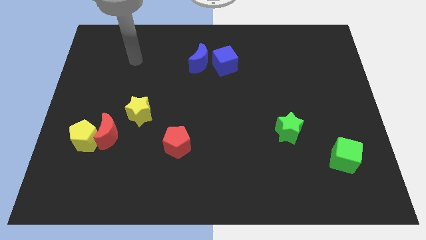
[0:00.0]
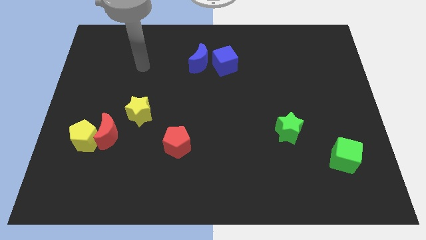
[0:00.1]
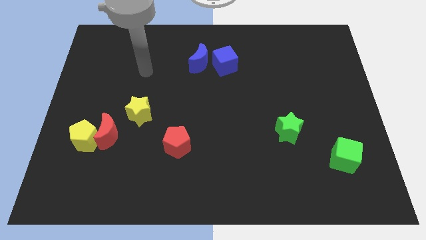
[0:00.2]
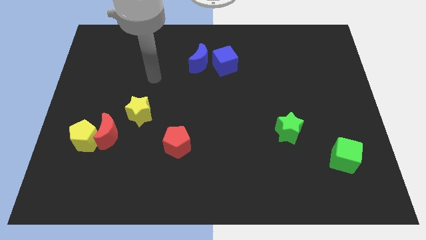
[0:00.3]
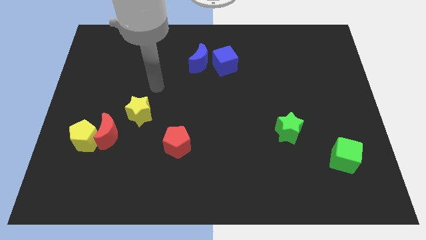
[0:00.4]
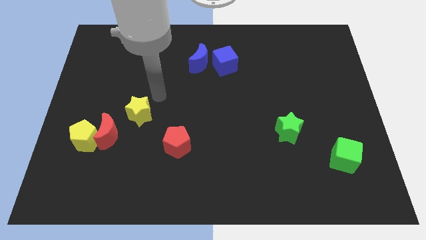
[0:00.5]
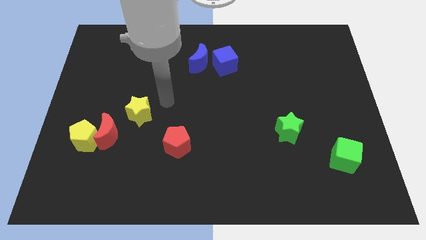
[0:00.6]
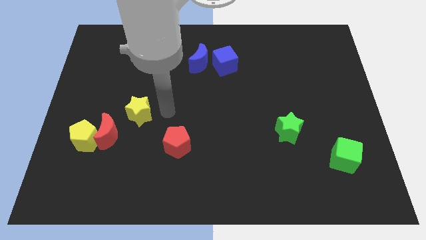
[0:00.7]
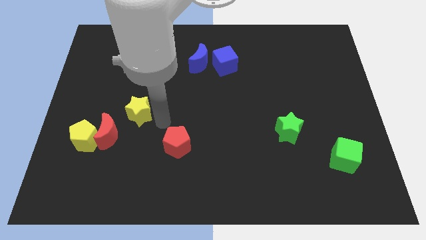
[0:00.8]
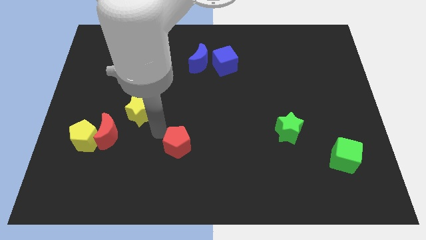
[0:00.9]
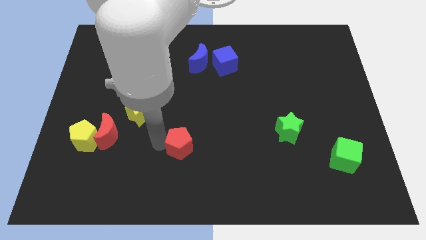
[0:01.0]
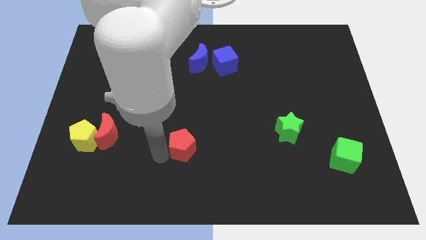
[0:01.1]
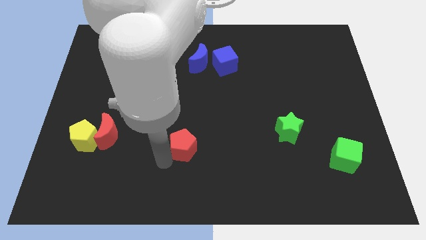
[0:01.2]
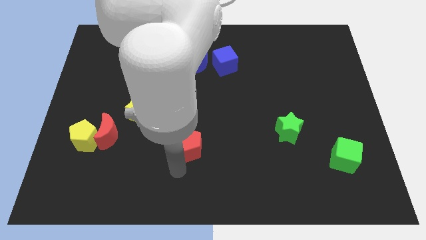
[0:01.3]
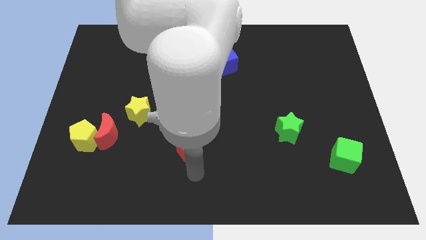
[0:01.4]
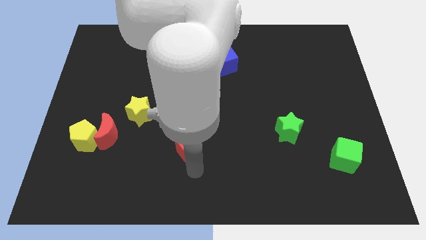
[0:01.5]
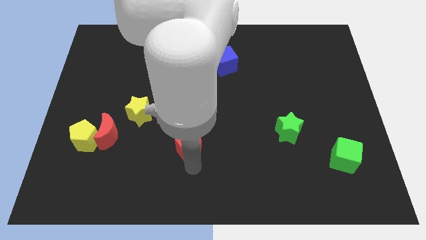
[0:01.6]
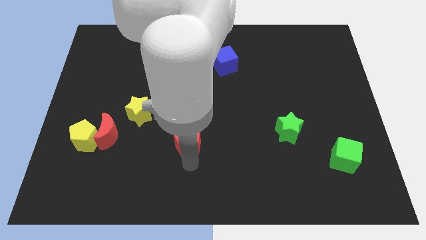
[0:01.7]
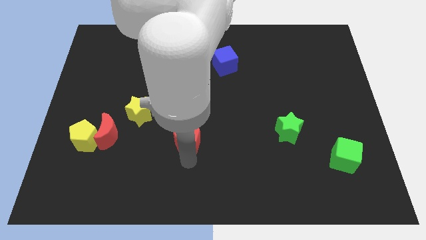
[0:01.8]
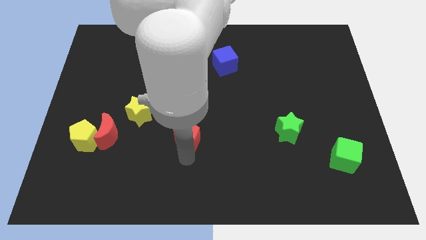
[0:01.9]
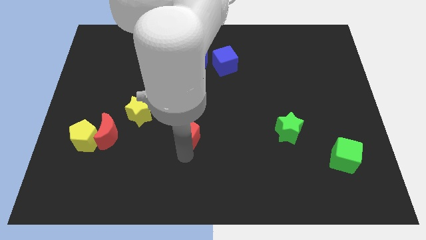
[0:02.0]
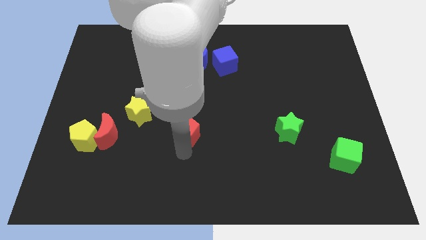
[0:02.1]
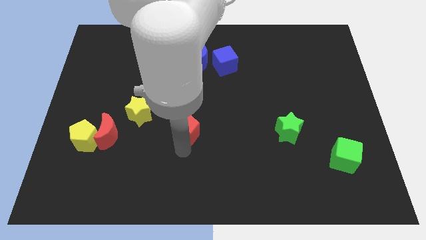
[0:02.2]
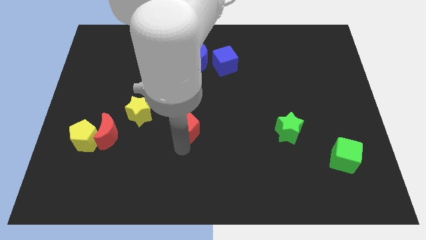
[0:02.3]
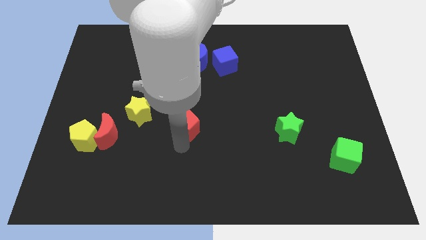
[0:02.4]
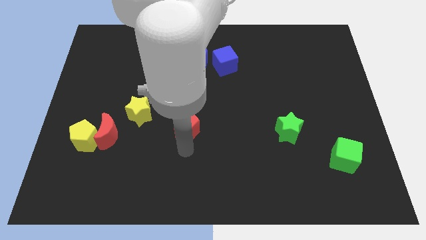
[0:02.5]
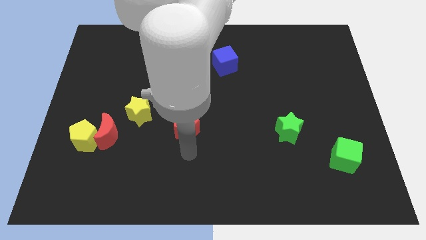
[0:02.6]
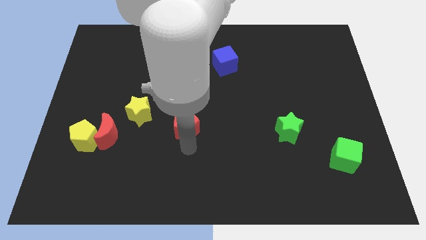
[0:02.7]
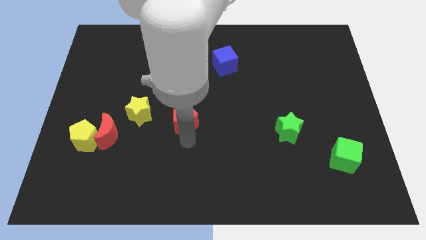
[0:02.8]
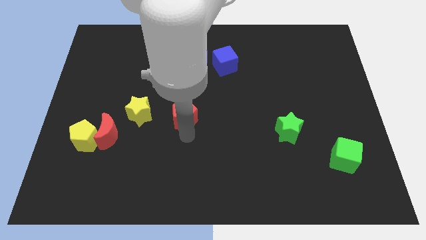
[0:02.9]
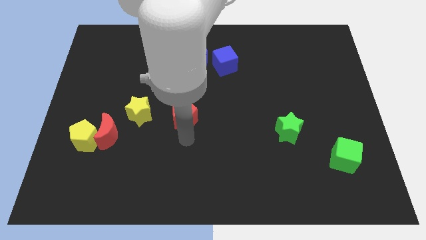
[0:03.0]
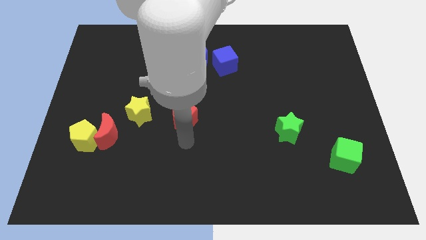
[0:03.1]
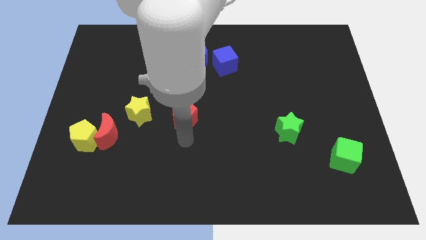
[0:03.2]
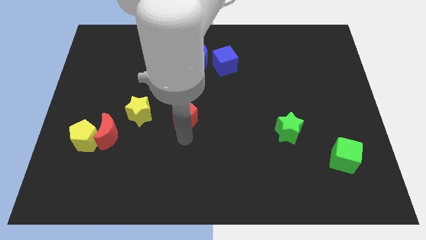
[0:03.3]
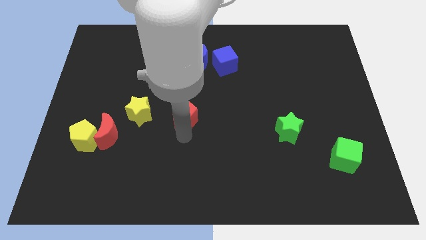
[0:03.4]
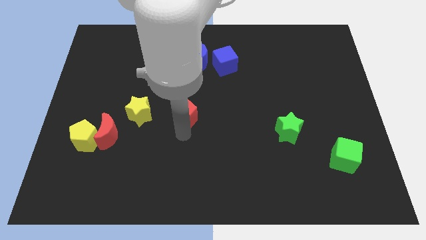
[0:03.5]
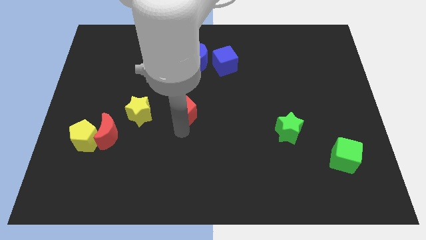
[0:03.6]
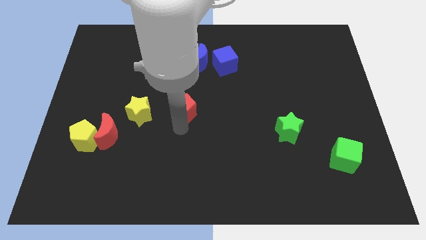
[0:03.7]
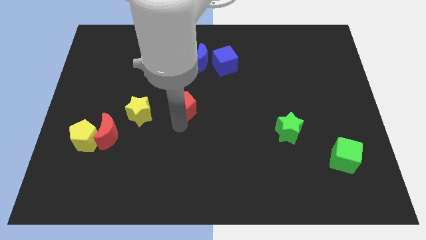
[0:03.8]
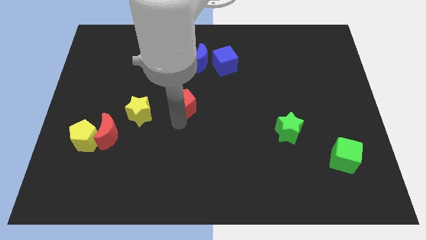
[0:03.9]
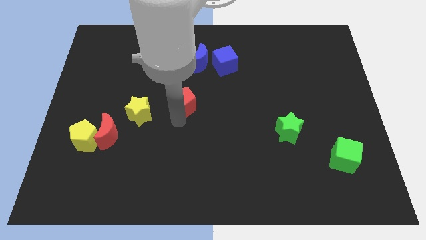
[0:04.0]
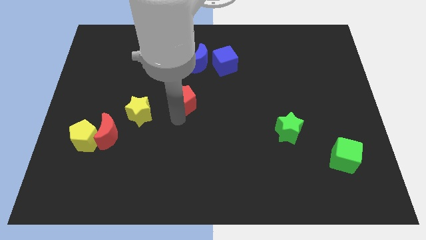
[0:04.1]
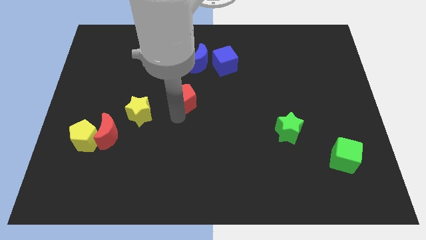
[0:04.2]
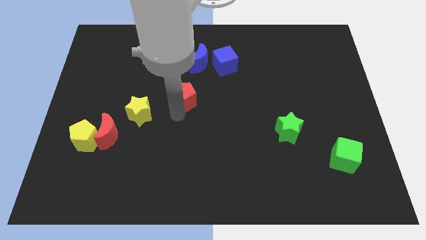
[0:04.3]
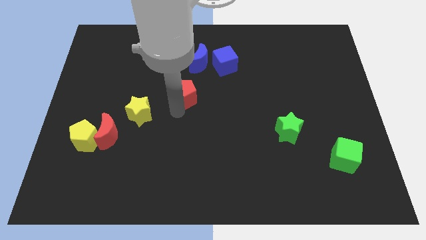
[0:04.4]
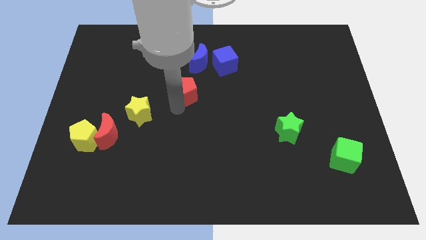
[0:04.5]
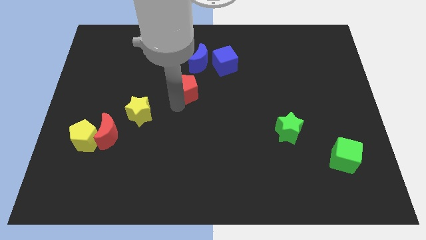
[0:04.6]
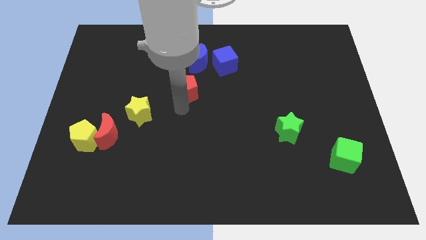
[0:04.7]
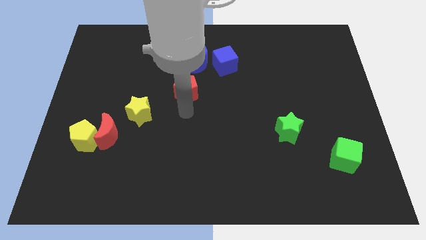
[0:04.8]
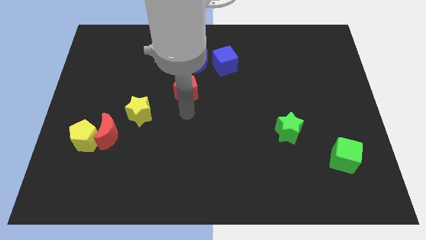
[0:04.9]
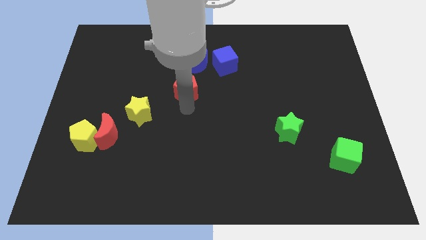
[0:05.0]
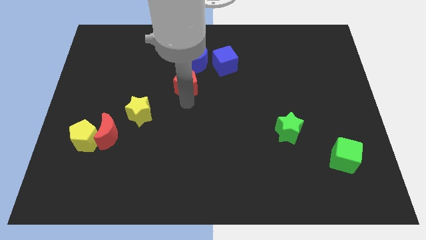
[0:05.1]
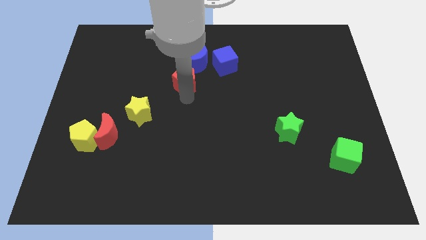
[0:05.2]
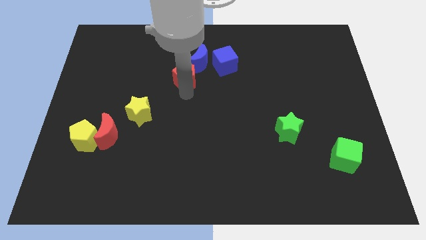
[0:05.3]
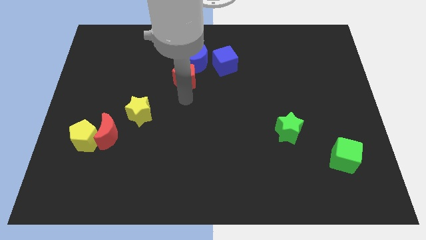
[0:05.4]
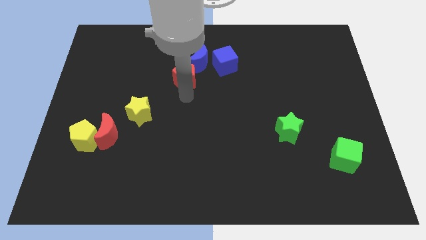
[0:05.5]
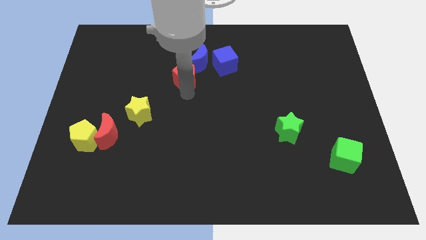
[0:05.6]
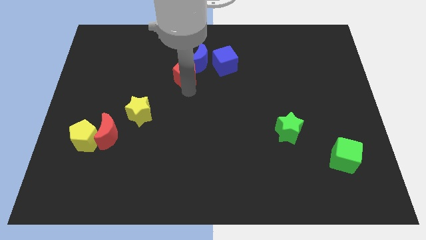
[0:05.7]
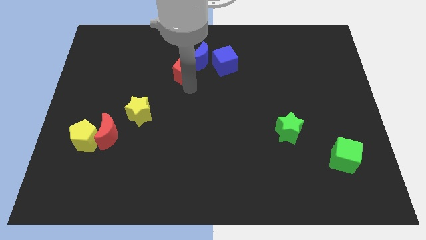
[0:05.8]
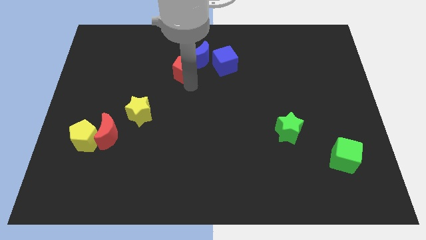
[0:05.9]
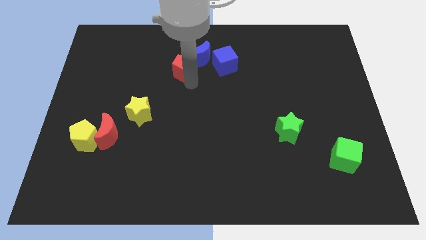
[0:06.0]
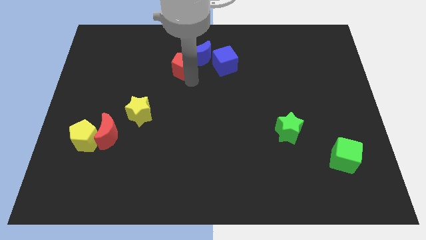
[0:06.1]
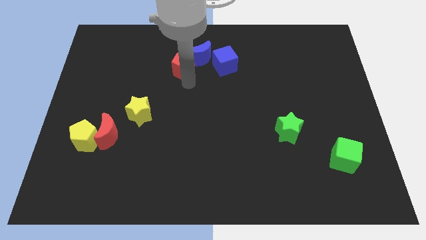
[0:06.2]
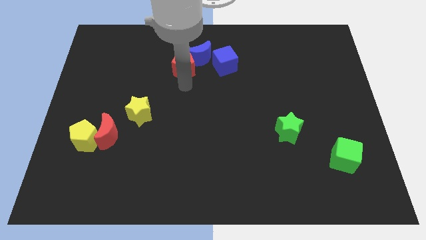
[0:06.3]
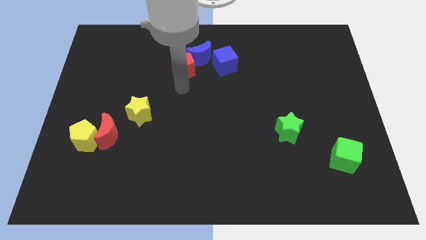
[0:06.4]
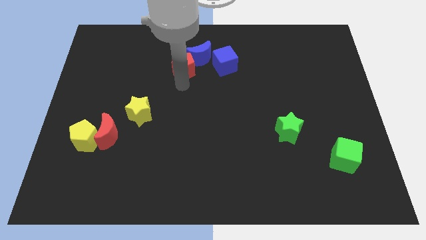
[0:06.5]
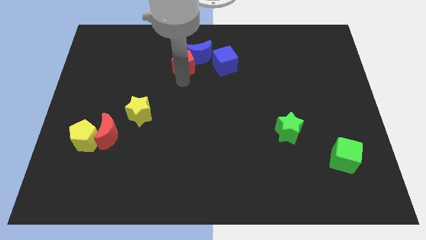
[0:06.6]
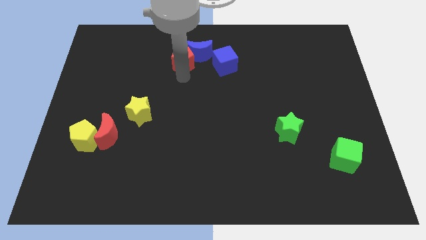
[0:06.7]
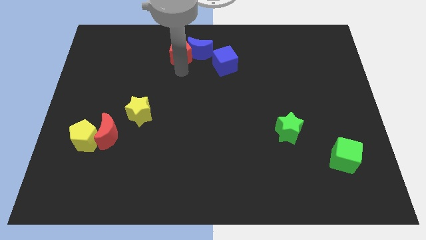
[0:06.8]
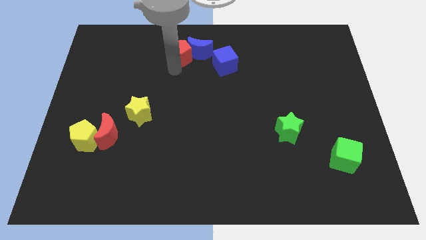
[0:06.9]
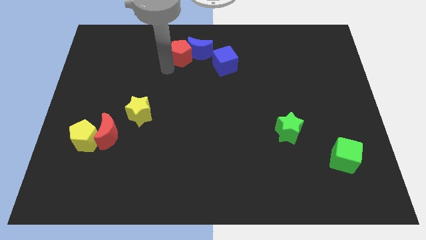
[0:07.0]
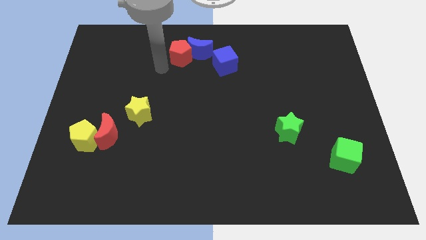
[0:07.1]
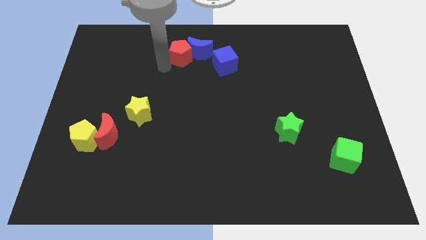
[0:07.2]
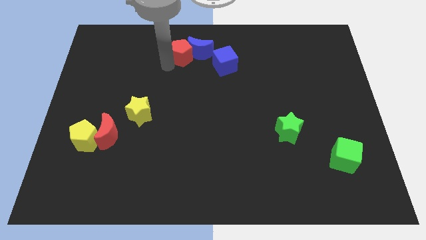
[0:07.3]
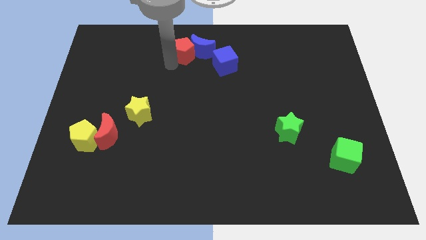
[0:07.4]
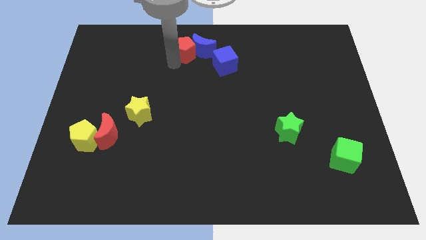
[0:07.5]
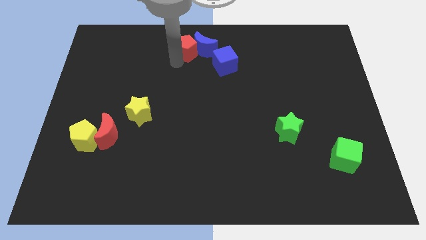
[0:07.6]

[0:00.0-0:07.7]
put the red pentagon to the towards your base
